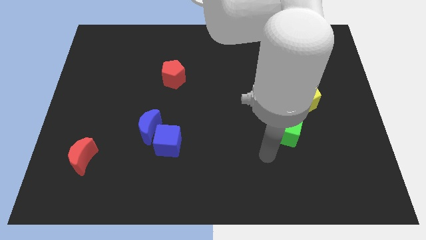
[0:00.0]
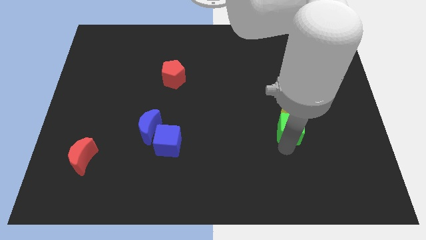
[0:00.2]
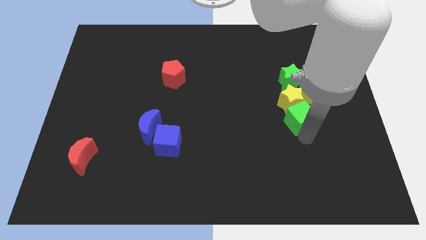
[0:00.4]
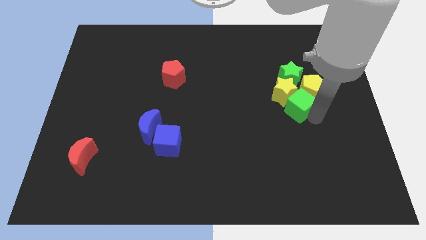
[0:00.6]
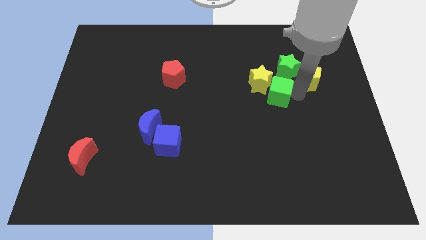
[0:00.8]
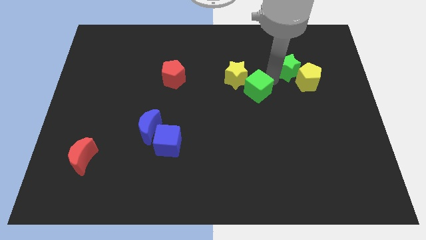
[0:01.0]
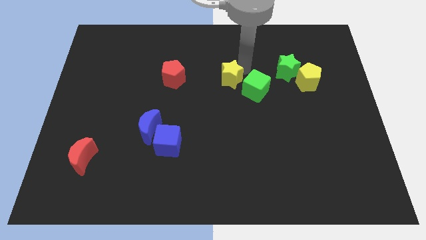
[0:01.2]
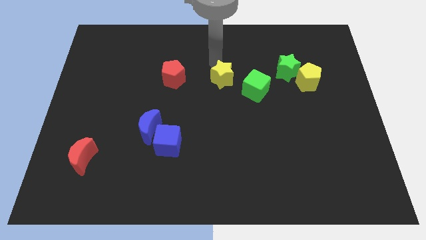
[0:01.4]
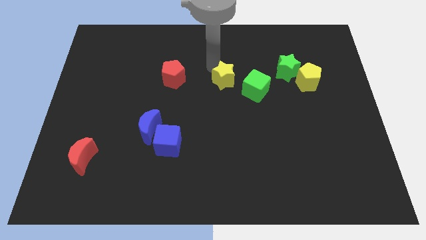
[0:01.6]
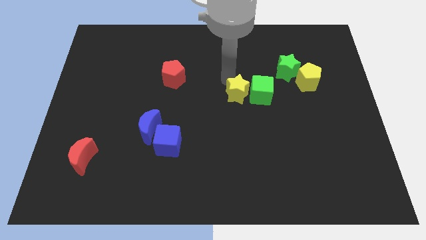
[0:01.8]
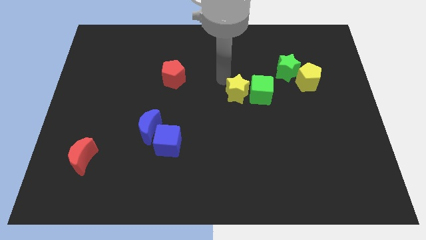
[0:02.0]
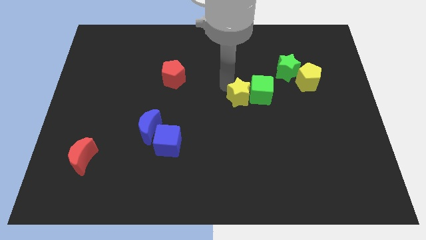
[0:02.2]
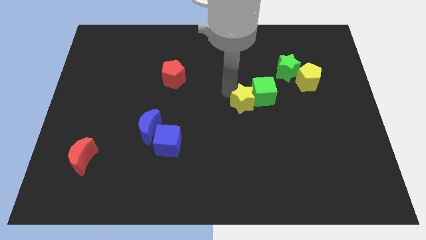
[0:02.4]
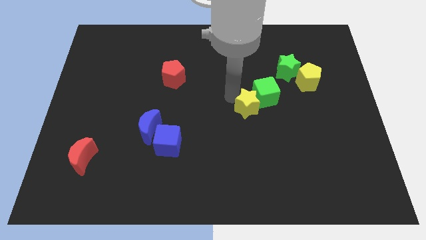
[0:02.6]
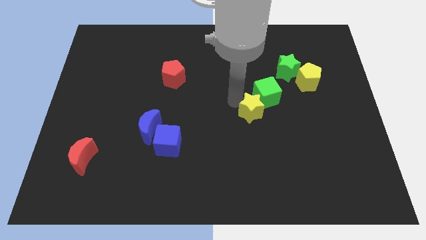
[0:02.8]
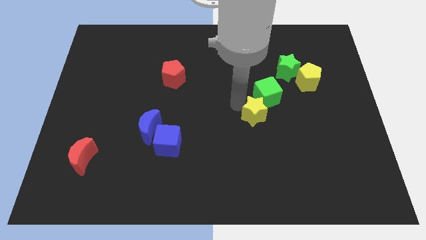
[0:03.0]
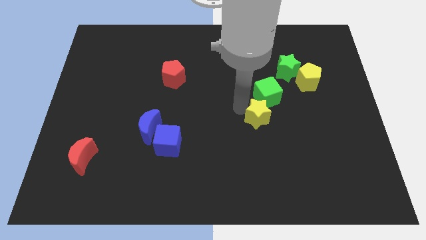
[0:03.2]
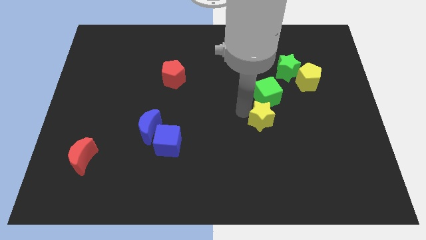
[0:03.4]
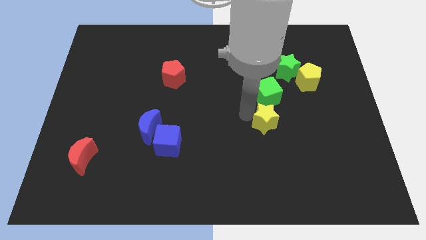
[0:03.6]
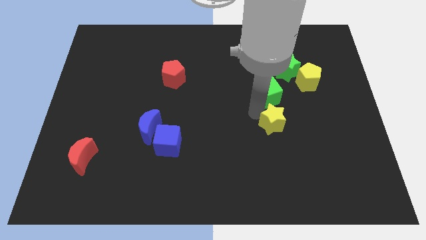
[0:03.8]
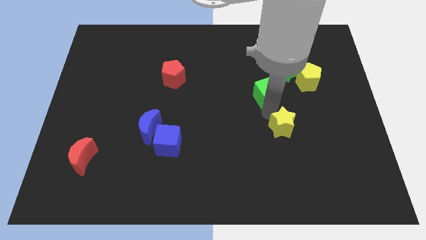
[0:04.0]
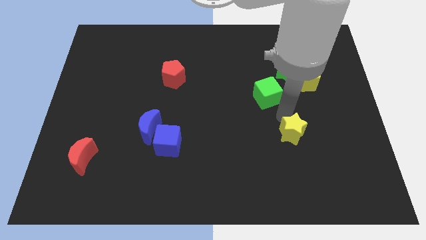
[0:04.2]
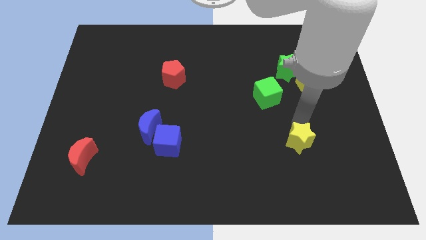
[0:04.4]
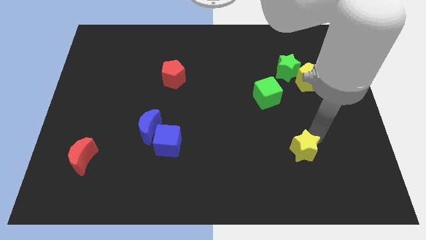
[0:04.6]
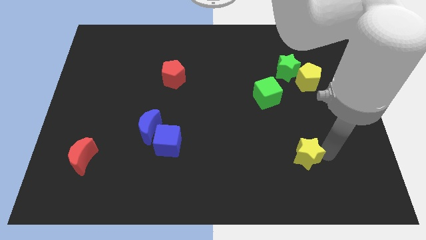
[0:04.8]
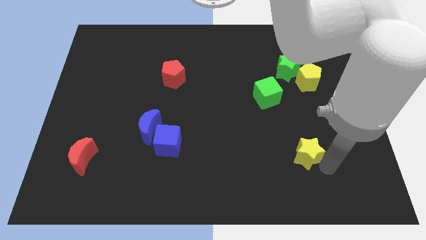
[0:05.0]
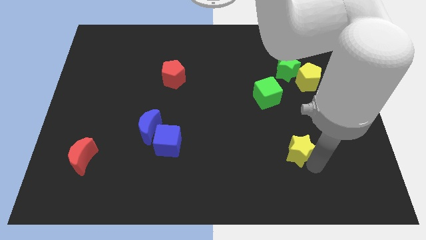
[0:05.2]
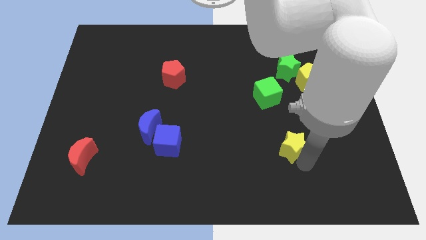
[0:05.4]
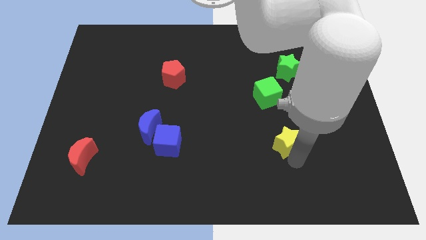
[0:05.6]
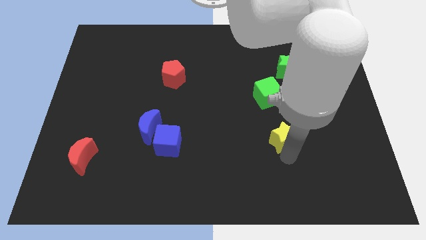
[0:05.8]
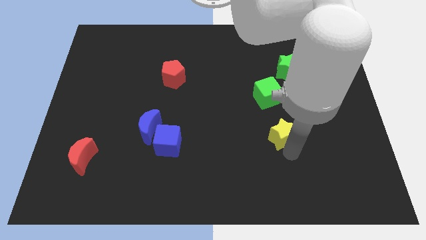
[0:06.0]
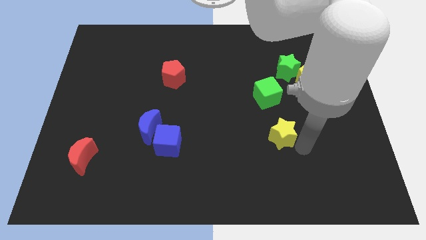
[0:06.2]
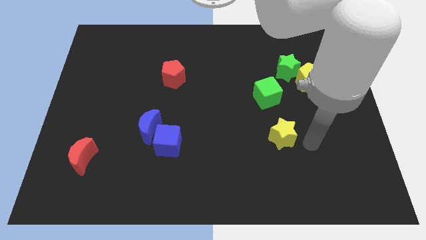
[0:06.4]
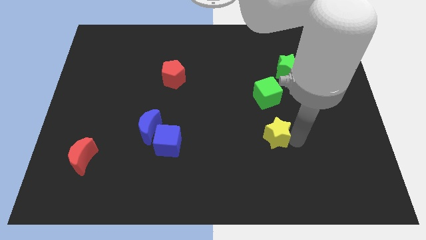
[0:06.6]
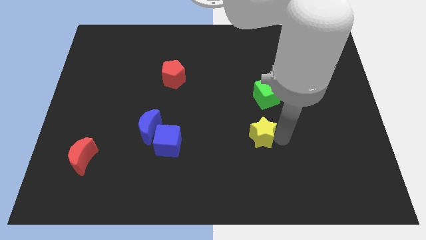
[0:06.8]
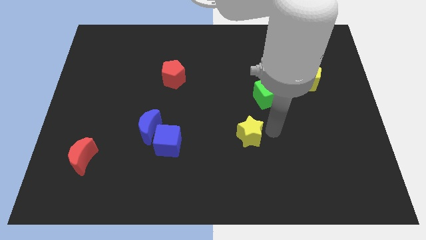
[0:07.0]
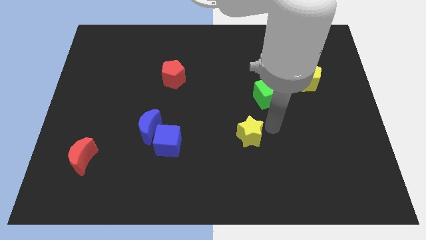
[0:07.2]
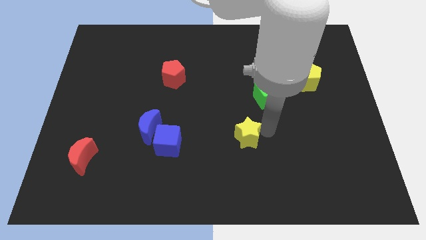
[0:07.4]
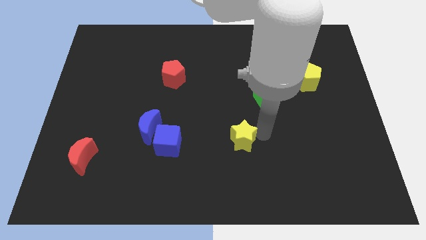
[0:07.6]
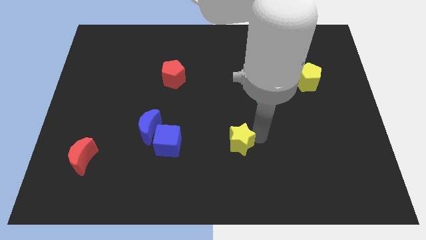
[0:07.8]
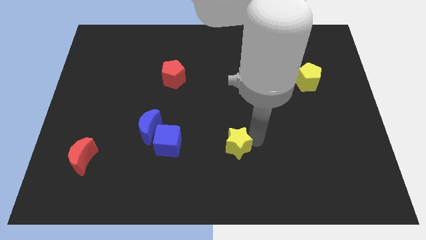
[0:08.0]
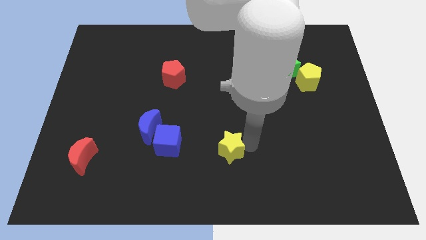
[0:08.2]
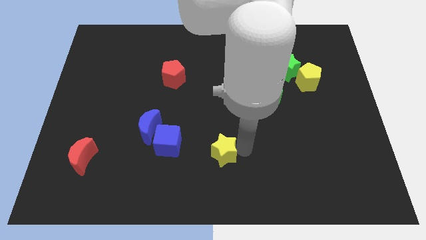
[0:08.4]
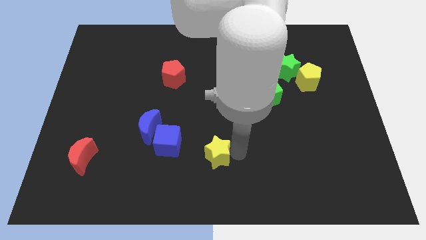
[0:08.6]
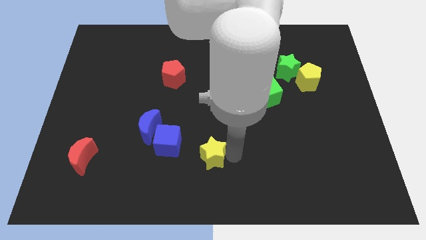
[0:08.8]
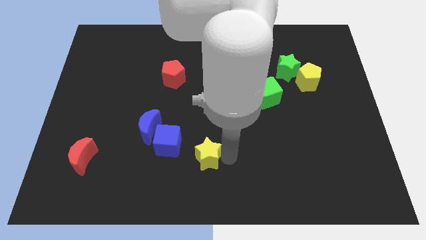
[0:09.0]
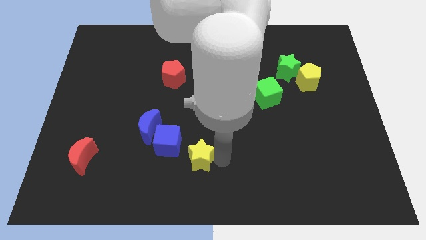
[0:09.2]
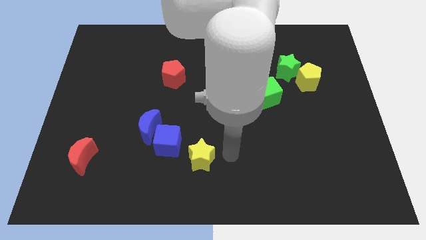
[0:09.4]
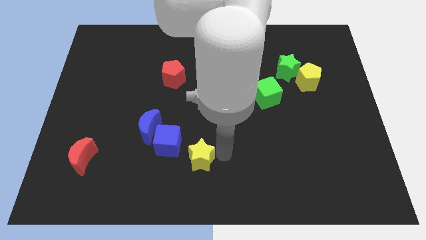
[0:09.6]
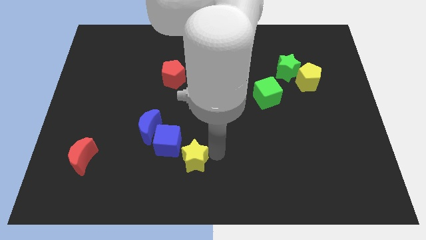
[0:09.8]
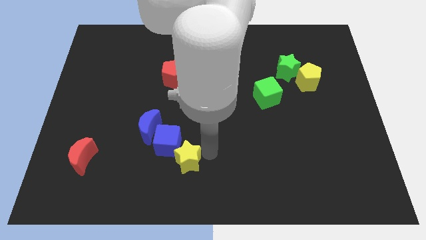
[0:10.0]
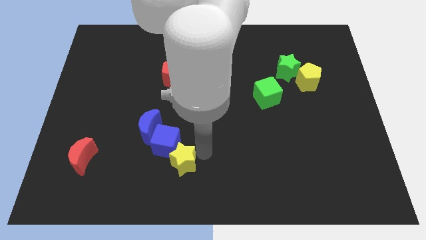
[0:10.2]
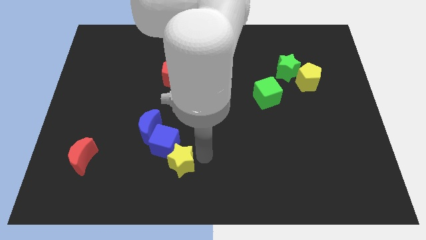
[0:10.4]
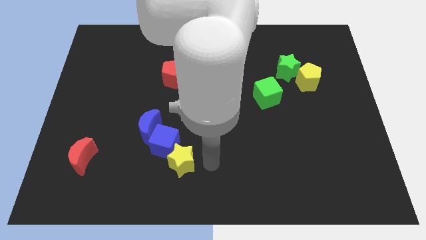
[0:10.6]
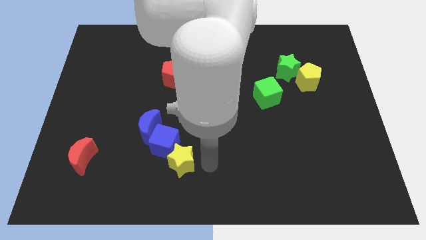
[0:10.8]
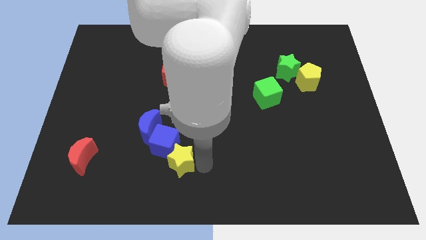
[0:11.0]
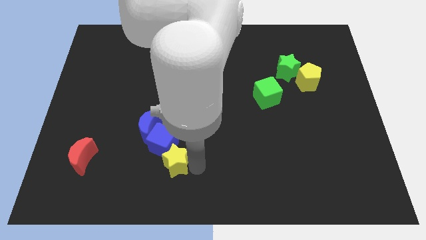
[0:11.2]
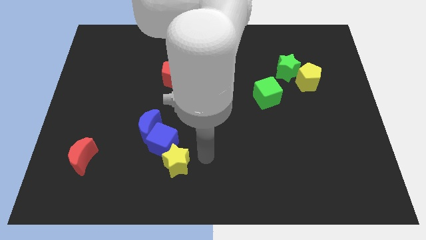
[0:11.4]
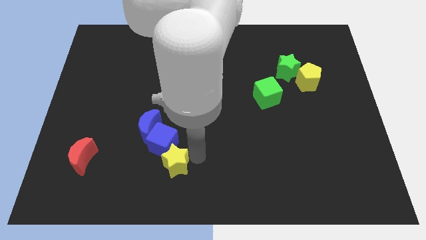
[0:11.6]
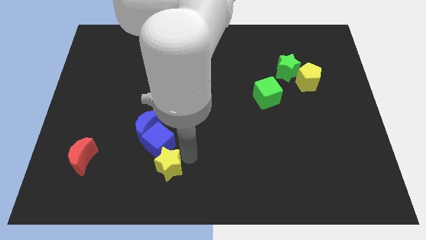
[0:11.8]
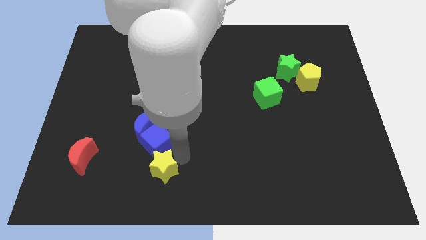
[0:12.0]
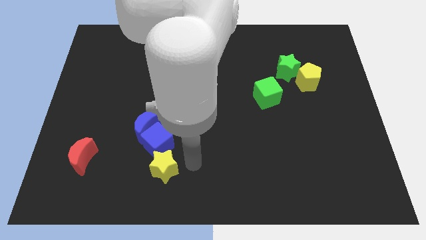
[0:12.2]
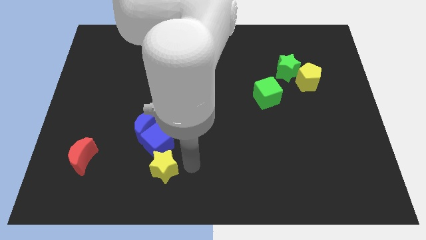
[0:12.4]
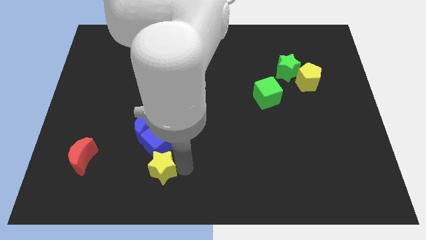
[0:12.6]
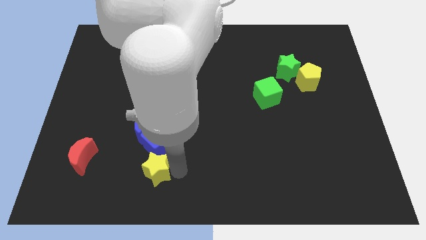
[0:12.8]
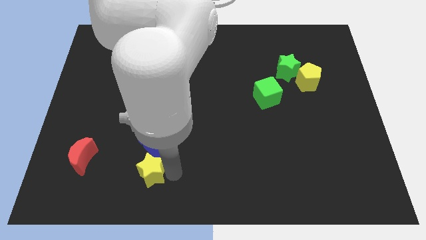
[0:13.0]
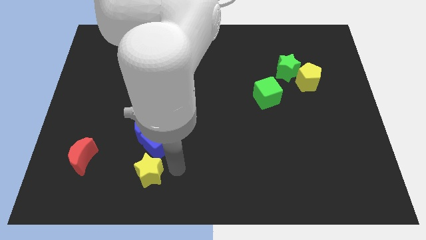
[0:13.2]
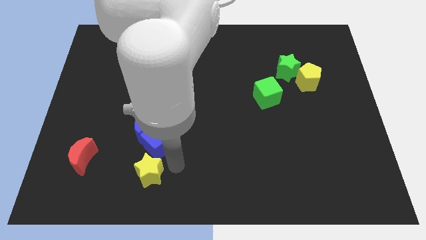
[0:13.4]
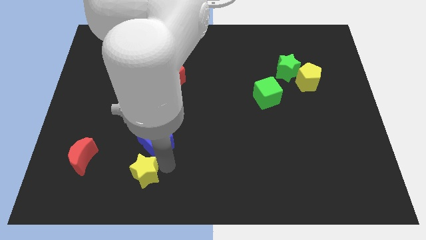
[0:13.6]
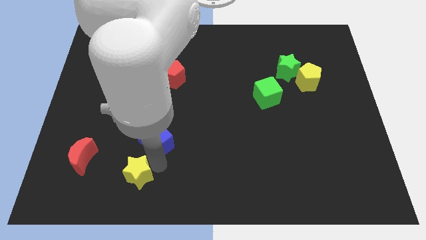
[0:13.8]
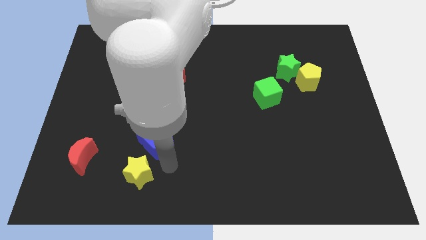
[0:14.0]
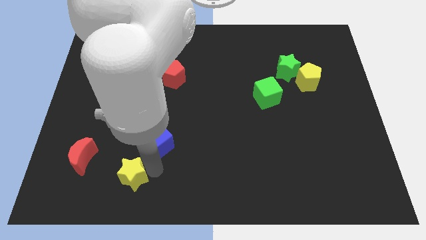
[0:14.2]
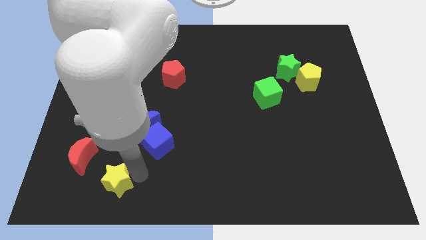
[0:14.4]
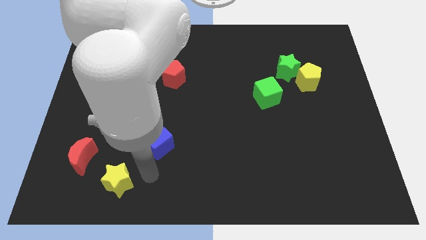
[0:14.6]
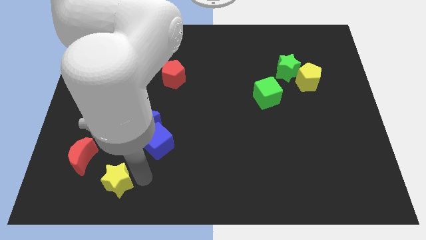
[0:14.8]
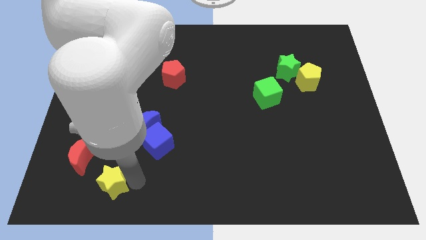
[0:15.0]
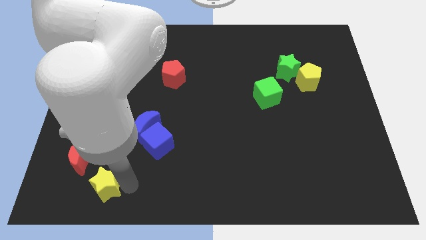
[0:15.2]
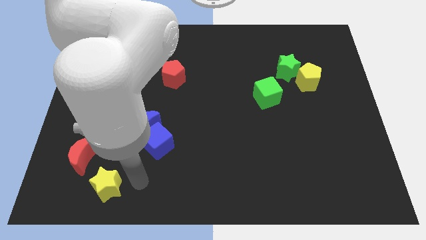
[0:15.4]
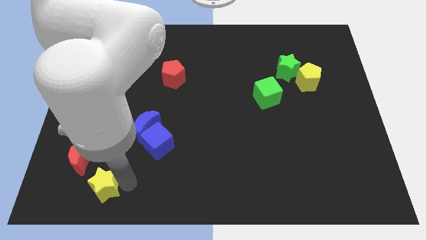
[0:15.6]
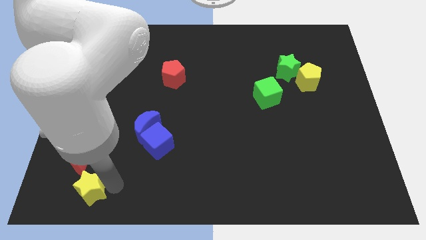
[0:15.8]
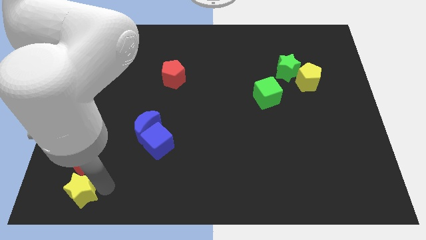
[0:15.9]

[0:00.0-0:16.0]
slide the yellow star to the lower left corner
